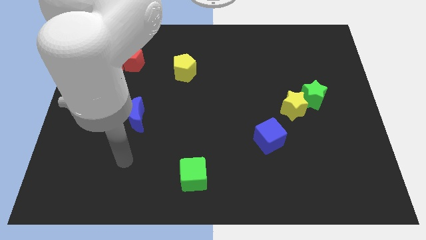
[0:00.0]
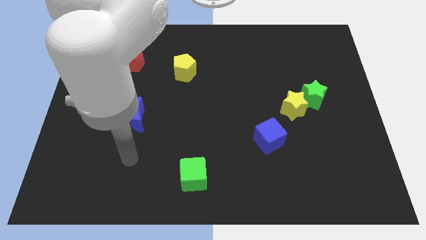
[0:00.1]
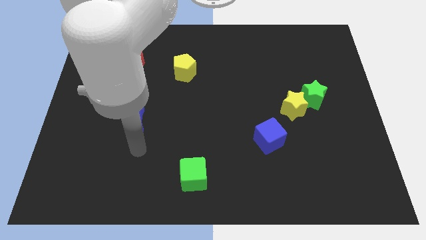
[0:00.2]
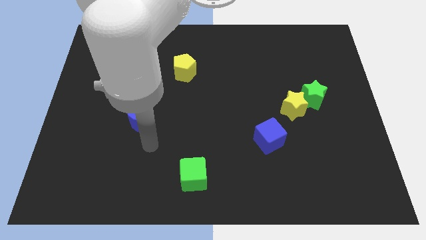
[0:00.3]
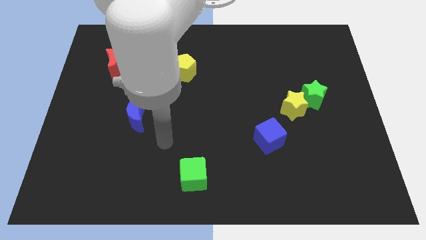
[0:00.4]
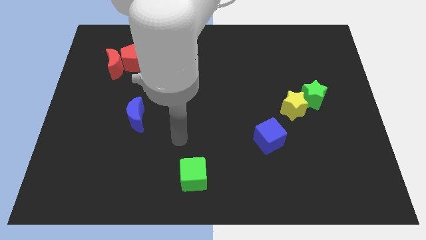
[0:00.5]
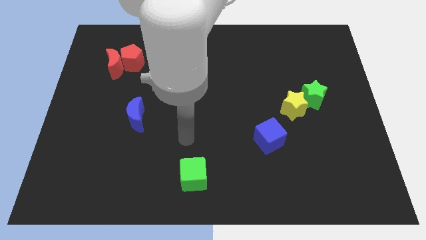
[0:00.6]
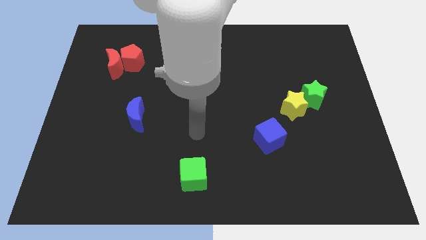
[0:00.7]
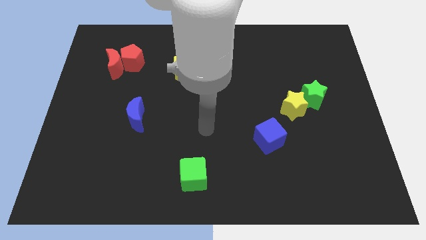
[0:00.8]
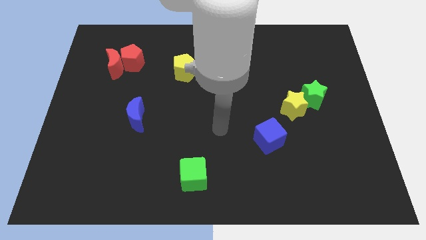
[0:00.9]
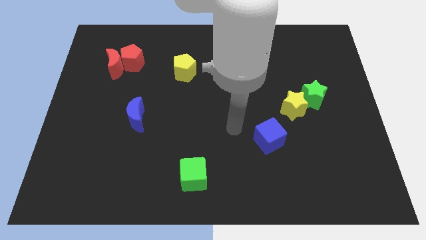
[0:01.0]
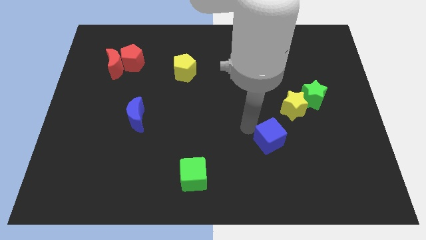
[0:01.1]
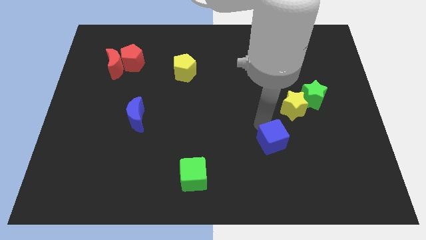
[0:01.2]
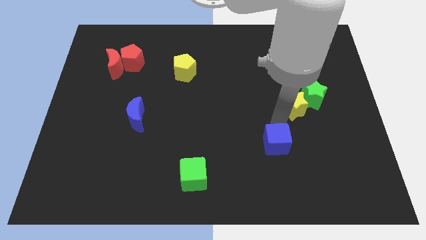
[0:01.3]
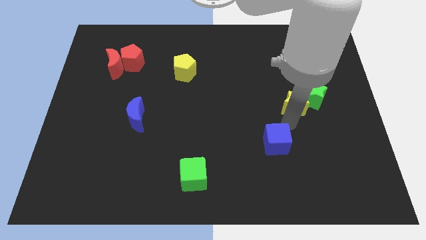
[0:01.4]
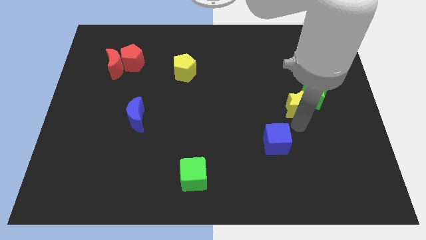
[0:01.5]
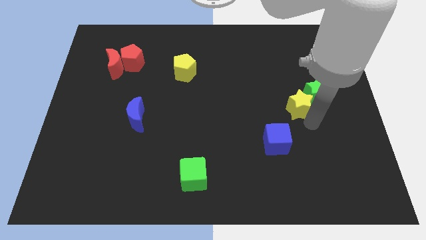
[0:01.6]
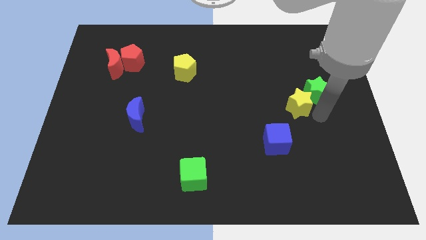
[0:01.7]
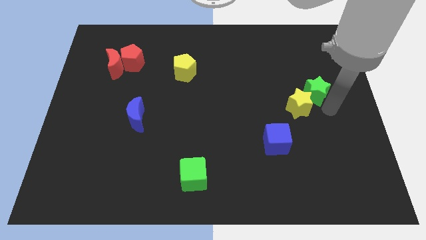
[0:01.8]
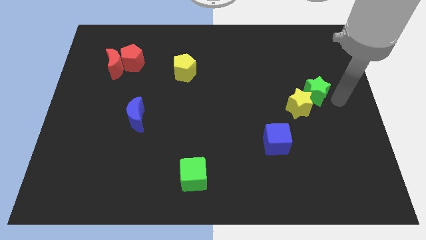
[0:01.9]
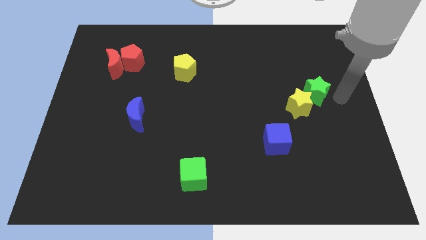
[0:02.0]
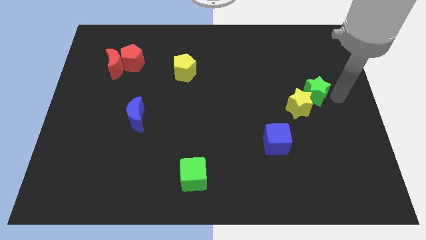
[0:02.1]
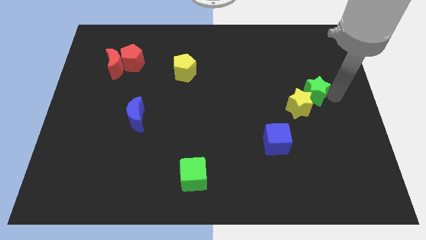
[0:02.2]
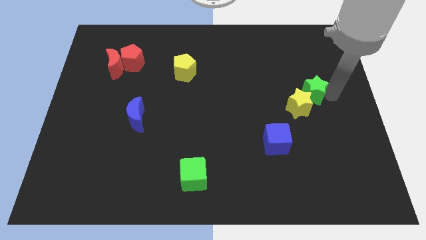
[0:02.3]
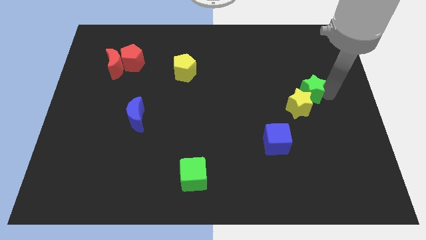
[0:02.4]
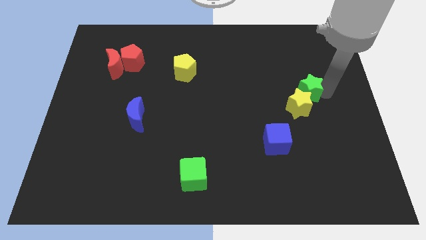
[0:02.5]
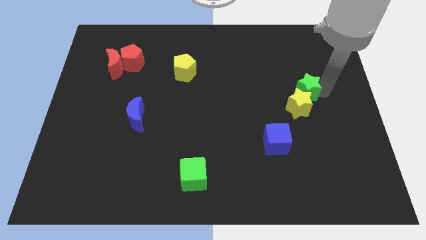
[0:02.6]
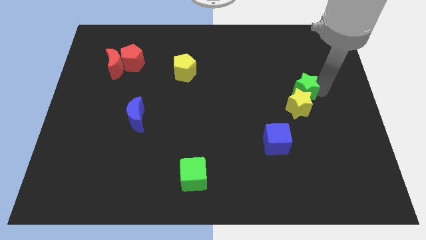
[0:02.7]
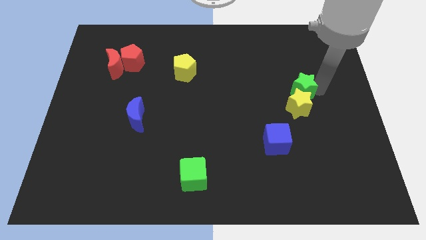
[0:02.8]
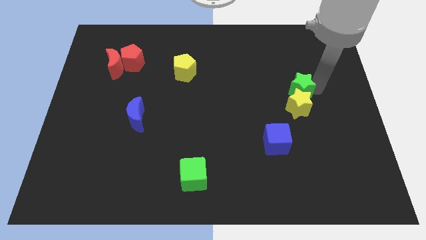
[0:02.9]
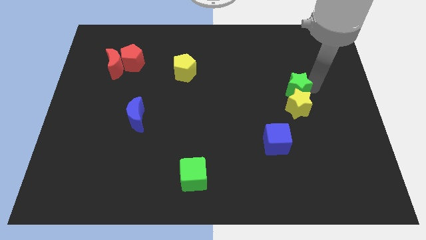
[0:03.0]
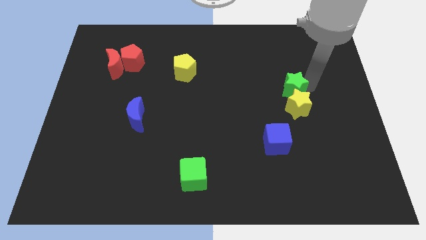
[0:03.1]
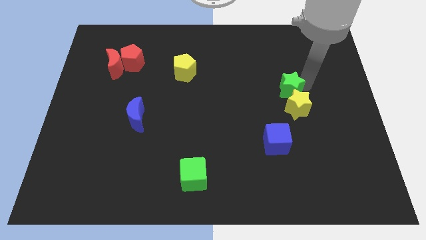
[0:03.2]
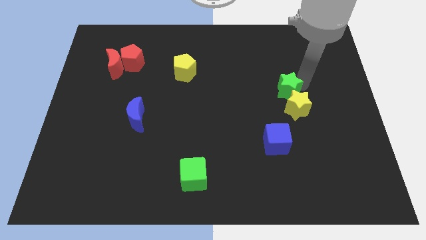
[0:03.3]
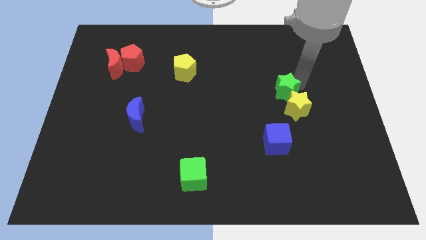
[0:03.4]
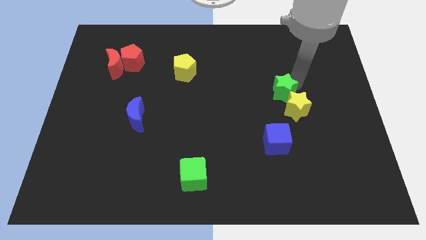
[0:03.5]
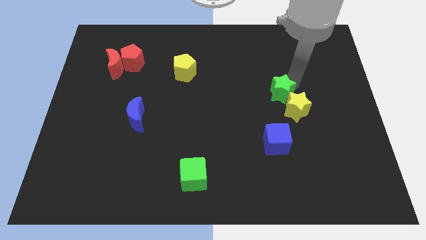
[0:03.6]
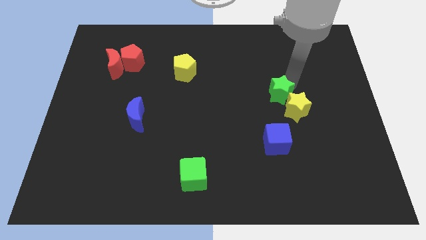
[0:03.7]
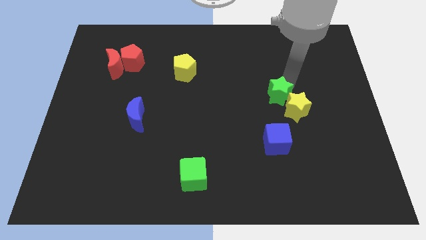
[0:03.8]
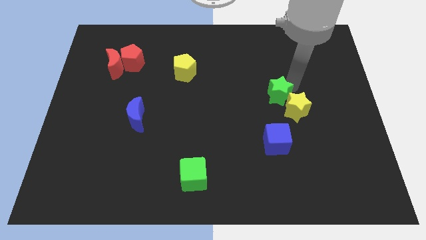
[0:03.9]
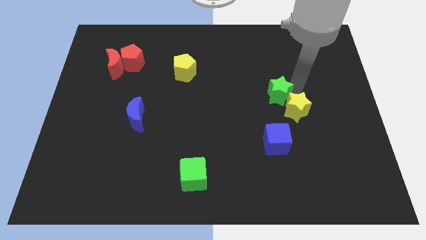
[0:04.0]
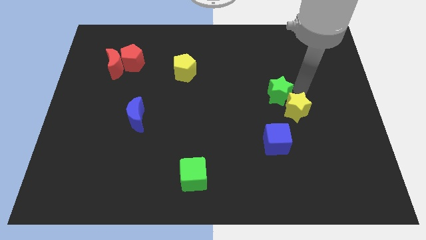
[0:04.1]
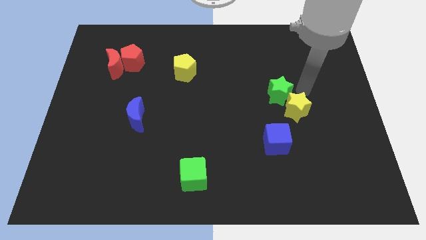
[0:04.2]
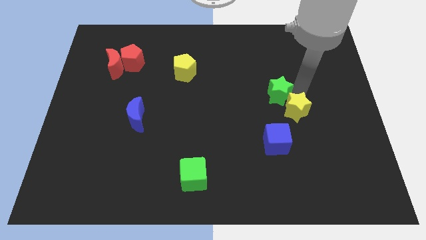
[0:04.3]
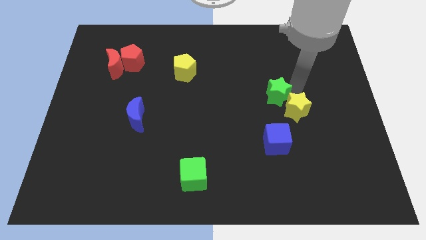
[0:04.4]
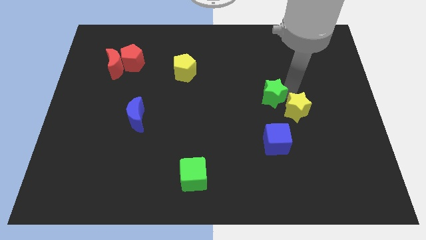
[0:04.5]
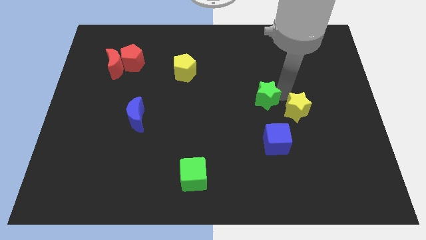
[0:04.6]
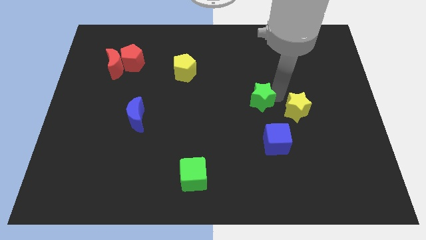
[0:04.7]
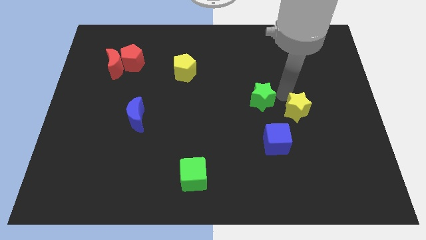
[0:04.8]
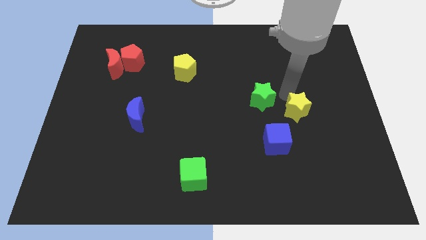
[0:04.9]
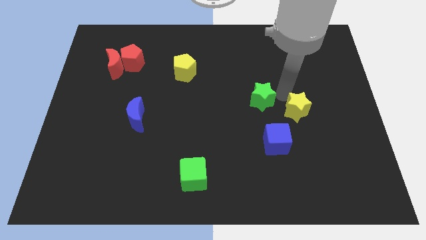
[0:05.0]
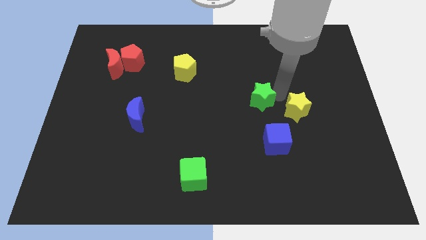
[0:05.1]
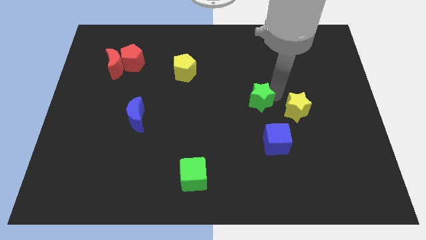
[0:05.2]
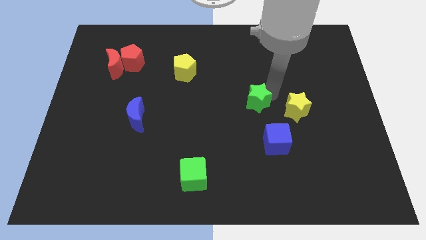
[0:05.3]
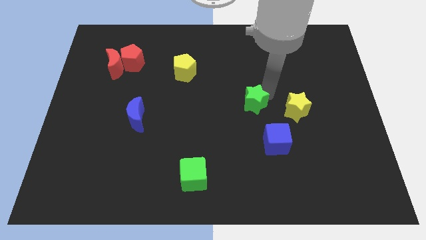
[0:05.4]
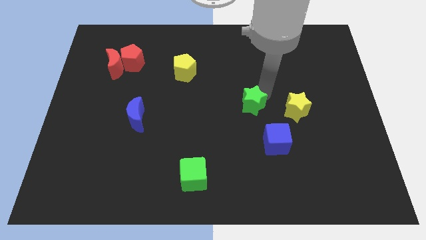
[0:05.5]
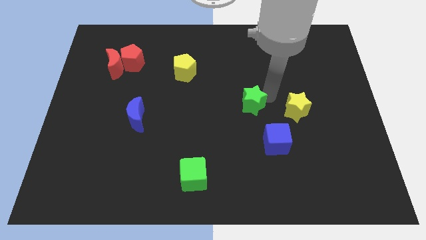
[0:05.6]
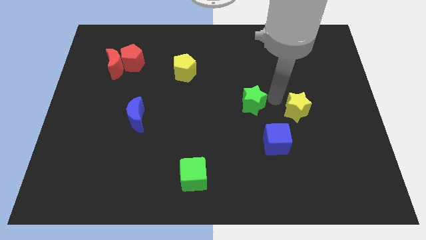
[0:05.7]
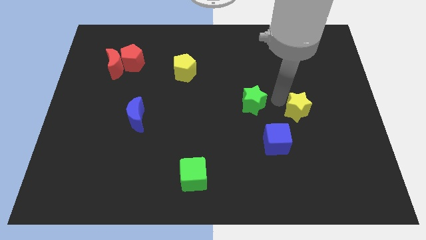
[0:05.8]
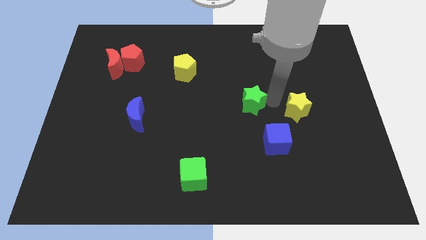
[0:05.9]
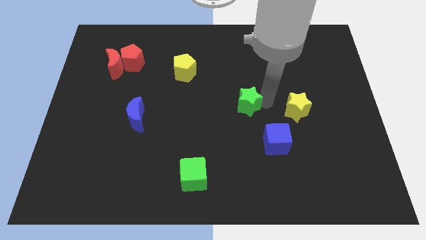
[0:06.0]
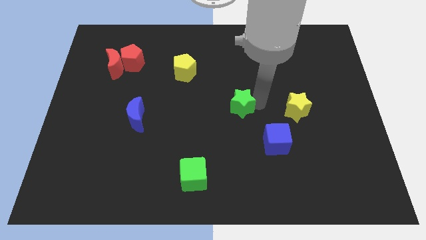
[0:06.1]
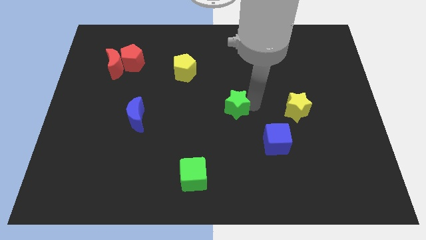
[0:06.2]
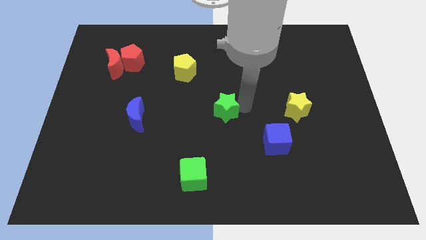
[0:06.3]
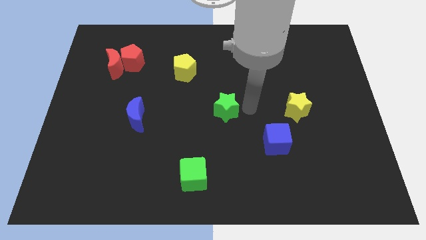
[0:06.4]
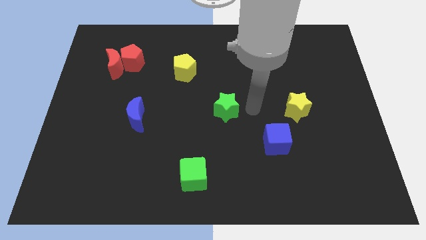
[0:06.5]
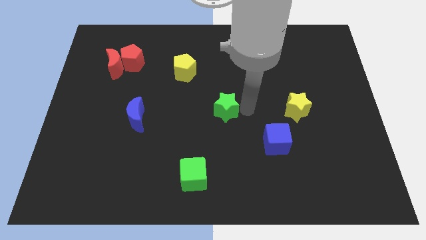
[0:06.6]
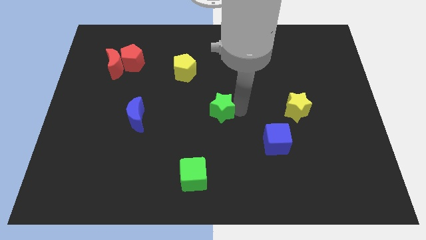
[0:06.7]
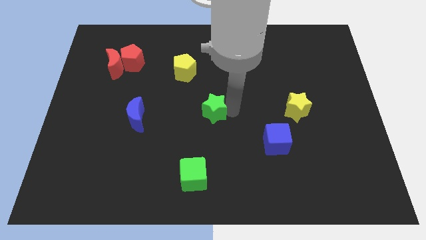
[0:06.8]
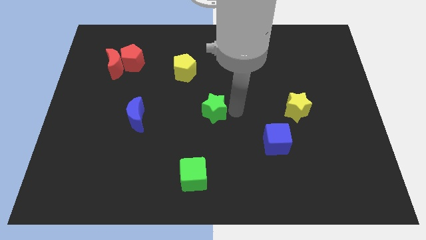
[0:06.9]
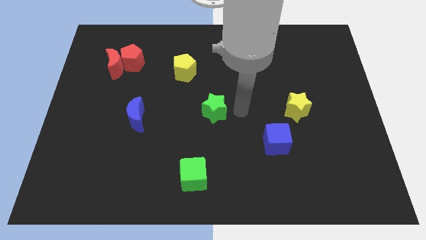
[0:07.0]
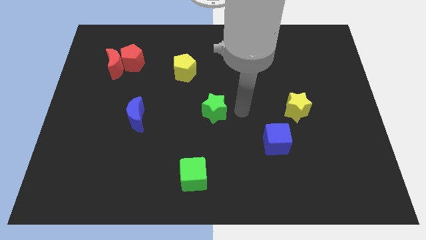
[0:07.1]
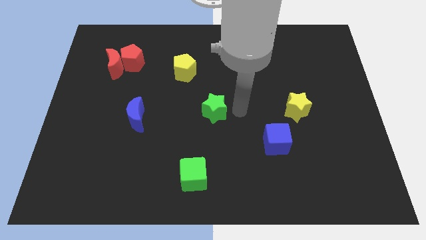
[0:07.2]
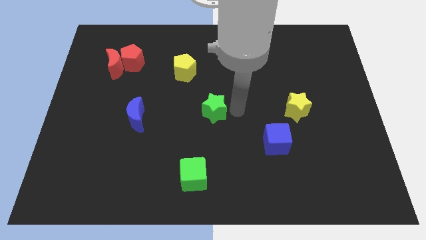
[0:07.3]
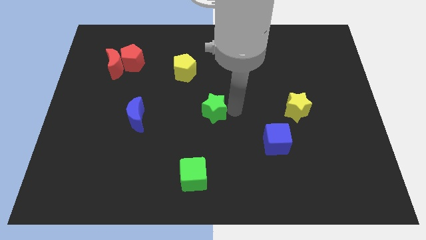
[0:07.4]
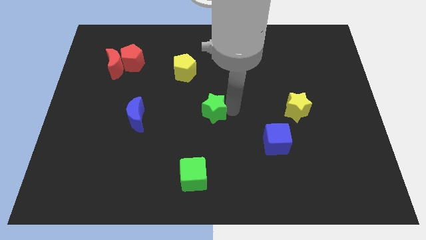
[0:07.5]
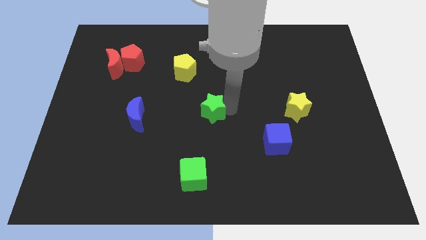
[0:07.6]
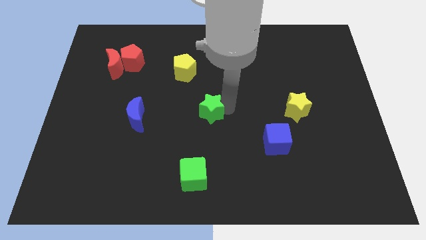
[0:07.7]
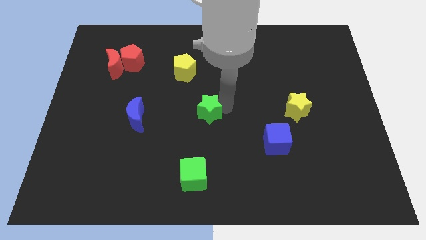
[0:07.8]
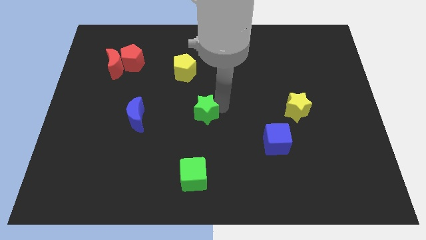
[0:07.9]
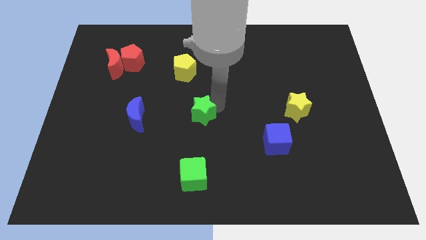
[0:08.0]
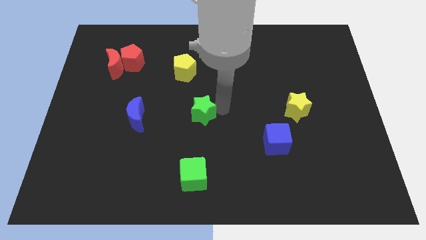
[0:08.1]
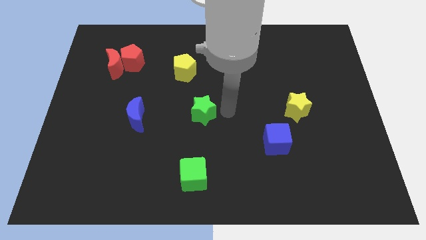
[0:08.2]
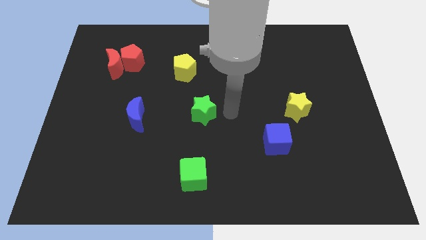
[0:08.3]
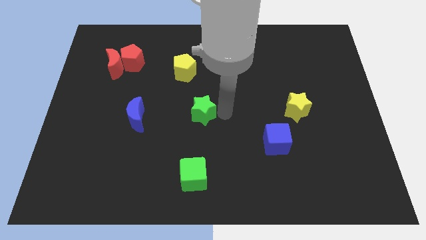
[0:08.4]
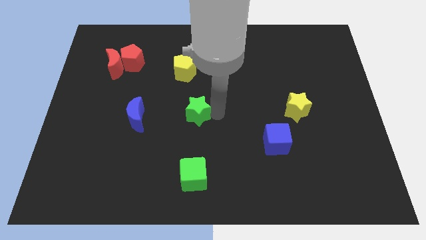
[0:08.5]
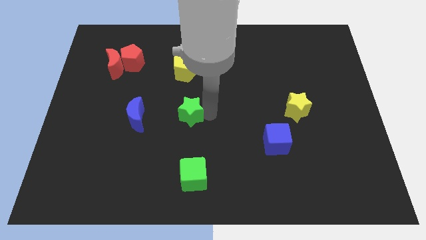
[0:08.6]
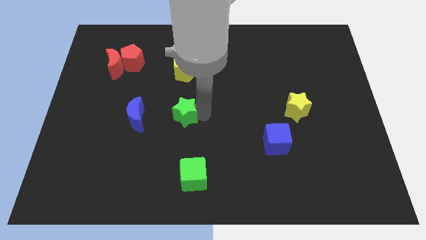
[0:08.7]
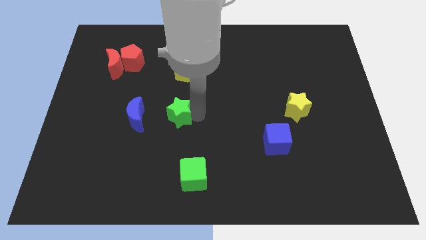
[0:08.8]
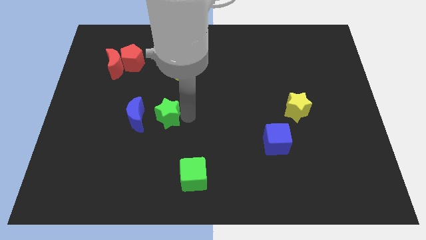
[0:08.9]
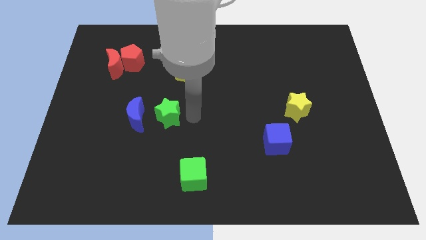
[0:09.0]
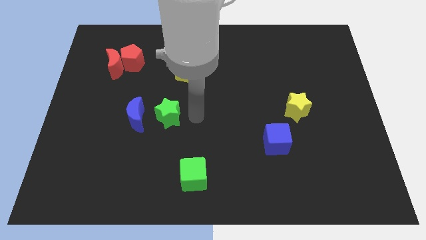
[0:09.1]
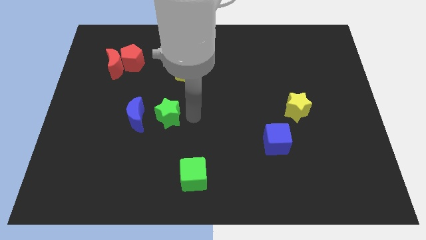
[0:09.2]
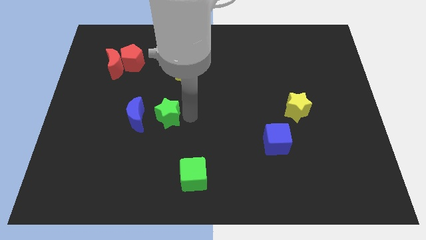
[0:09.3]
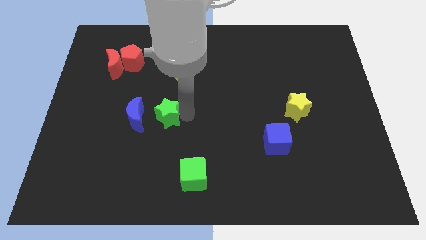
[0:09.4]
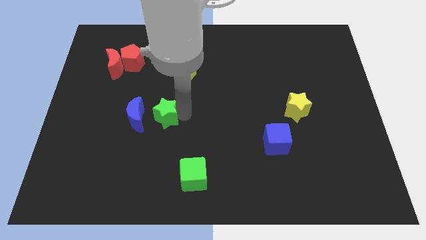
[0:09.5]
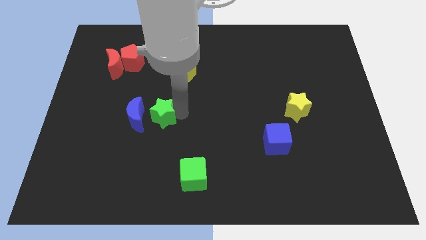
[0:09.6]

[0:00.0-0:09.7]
move the green star to the blue moon
